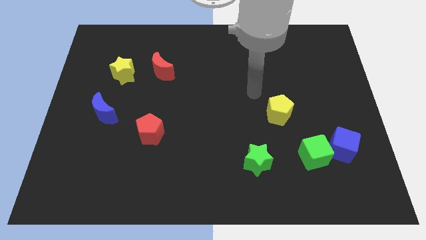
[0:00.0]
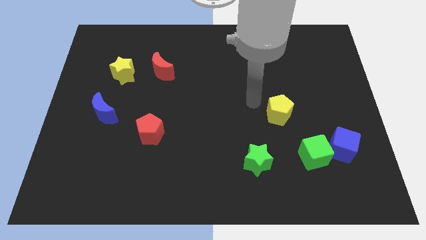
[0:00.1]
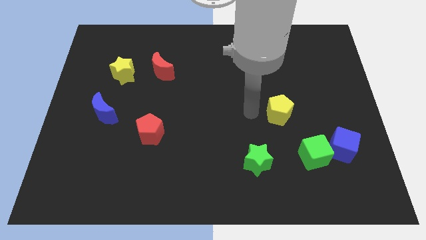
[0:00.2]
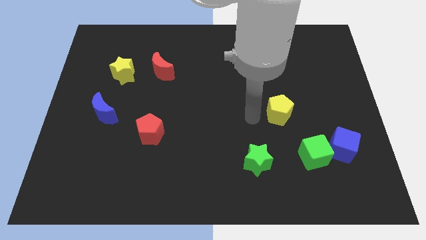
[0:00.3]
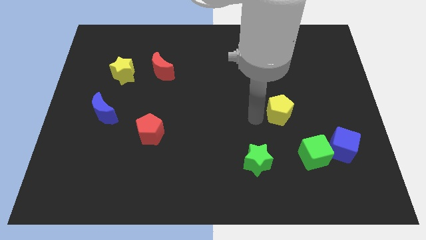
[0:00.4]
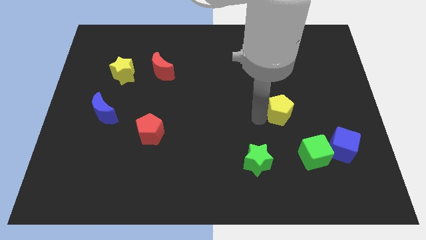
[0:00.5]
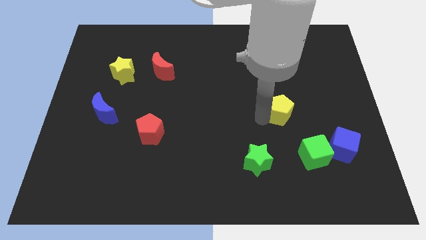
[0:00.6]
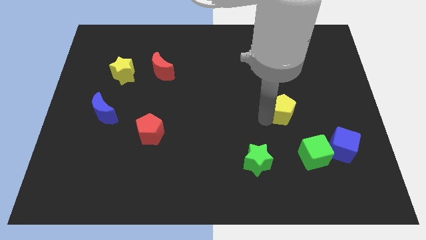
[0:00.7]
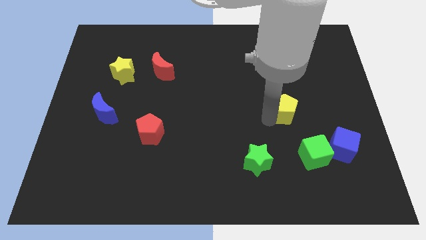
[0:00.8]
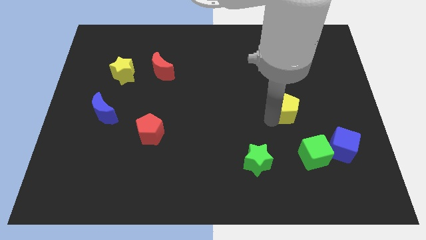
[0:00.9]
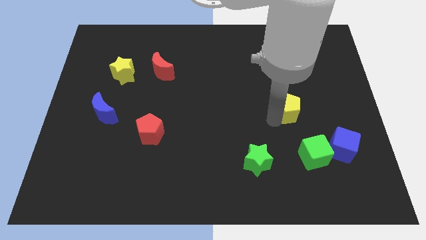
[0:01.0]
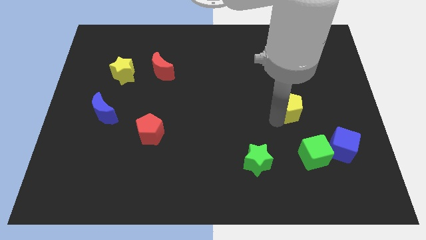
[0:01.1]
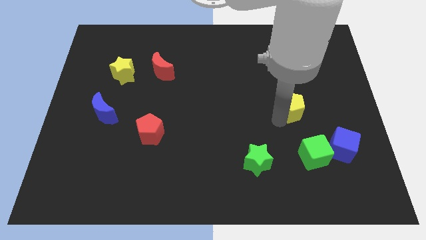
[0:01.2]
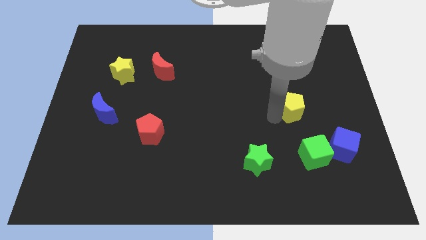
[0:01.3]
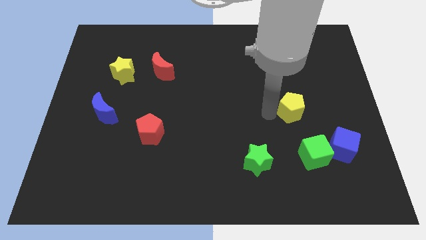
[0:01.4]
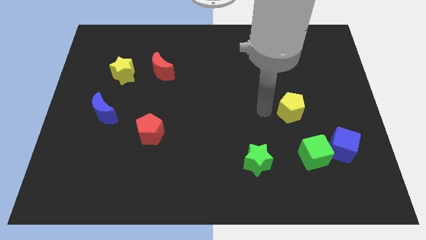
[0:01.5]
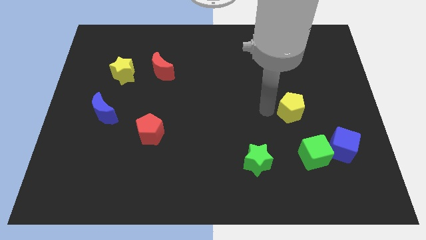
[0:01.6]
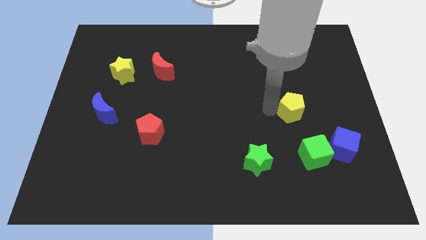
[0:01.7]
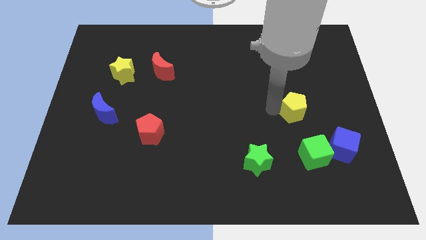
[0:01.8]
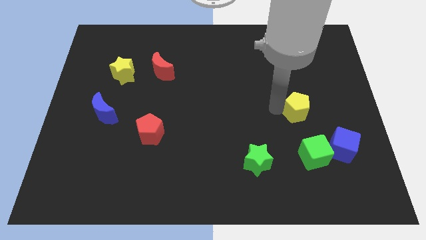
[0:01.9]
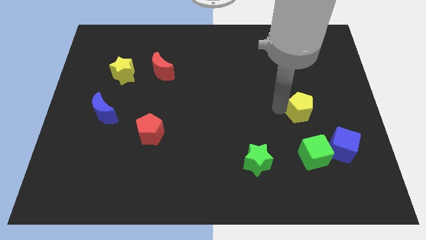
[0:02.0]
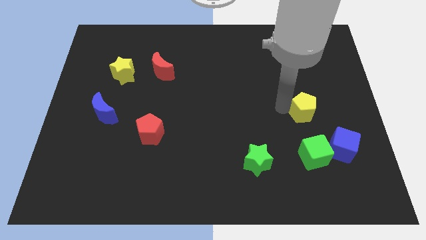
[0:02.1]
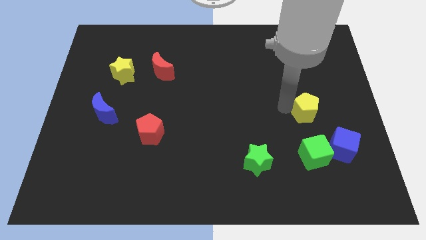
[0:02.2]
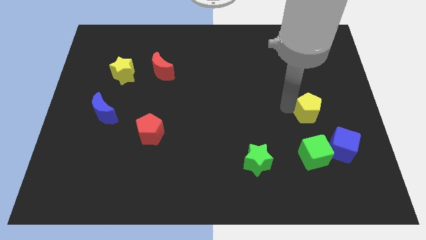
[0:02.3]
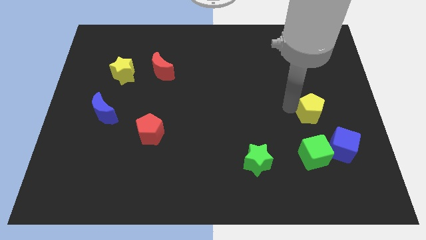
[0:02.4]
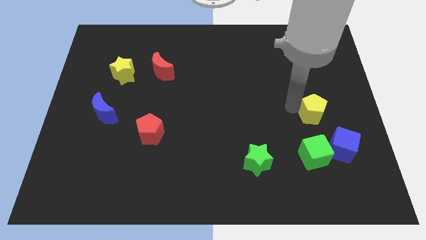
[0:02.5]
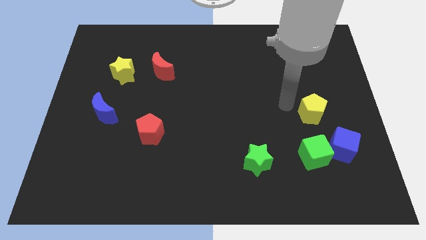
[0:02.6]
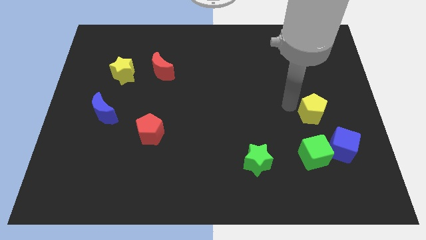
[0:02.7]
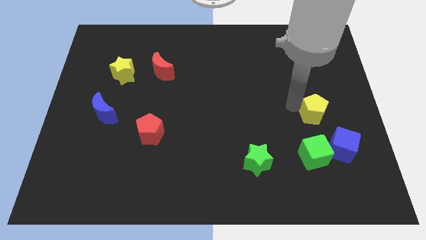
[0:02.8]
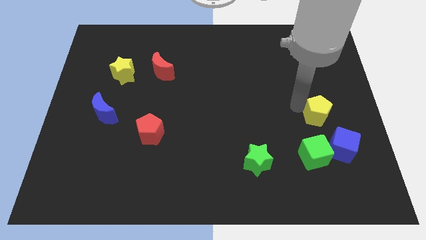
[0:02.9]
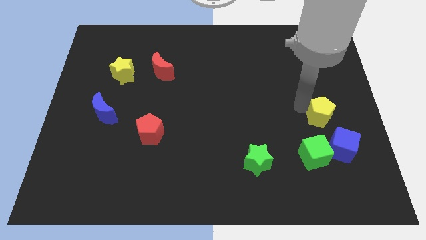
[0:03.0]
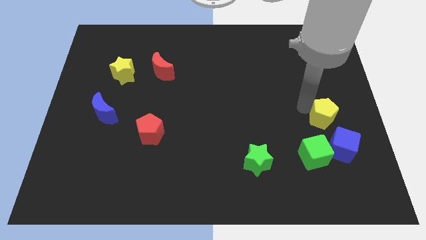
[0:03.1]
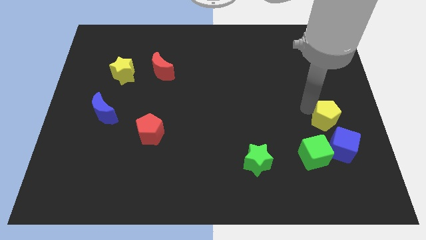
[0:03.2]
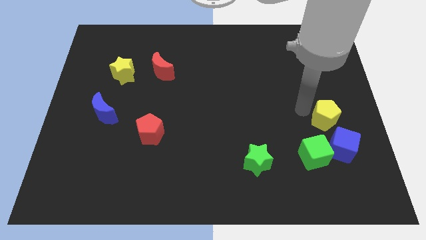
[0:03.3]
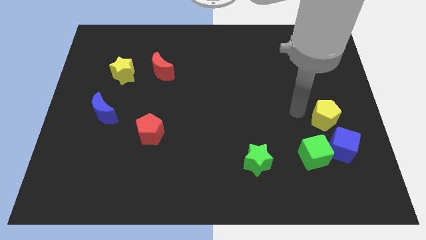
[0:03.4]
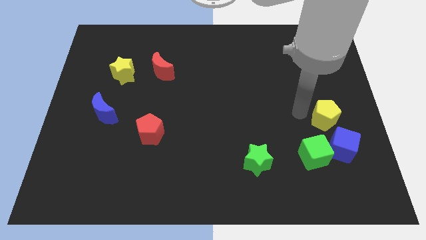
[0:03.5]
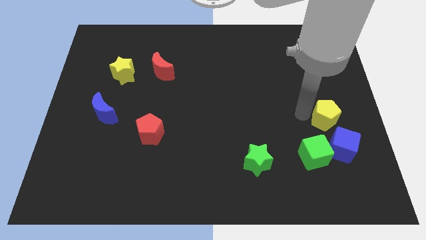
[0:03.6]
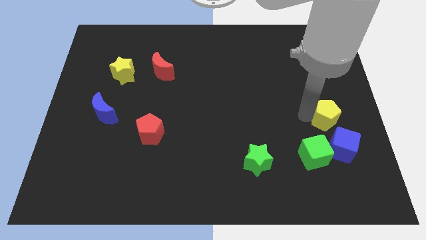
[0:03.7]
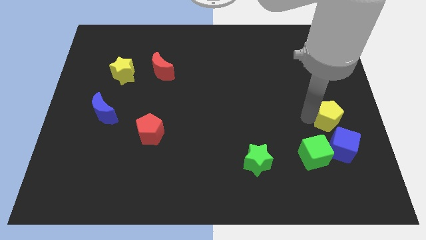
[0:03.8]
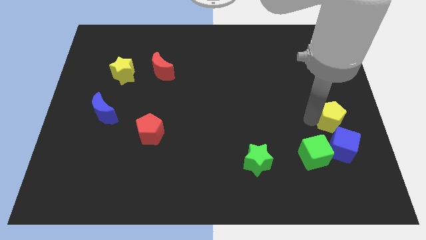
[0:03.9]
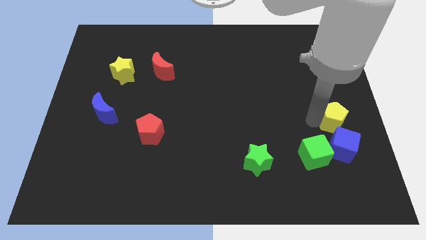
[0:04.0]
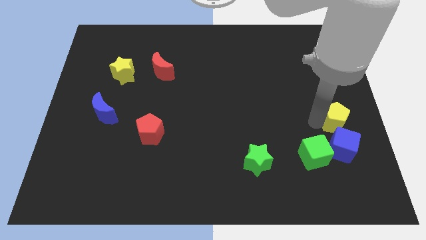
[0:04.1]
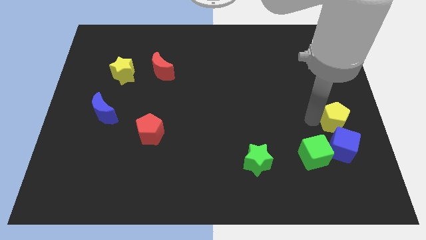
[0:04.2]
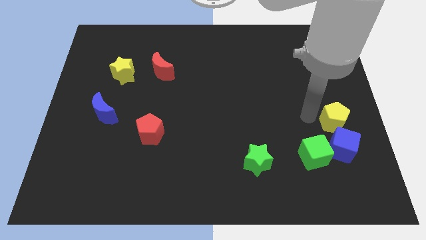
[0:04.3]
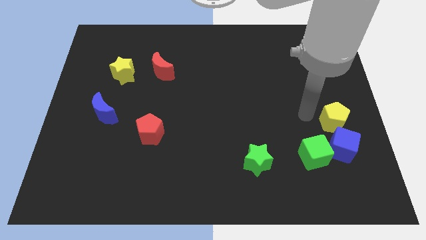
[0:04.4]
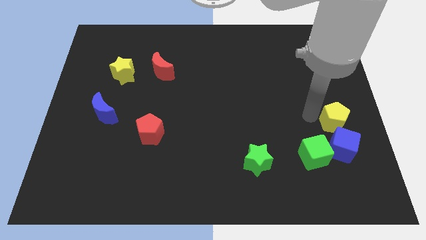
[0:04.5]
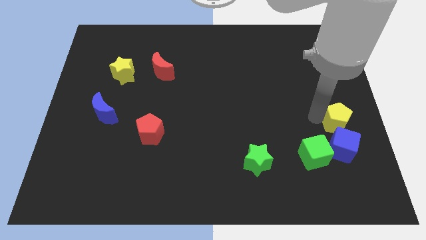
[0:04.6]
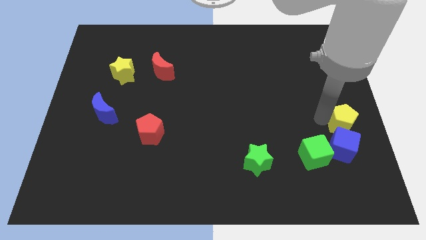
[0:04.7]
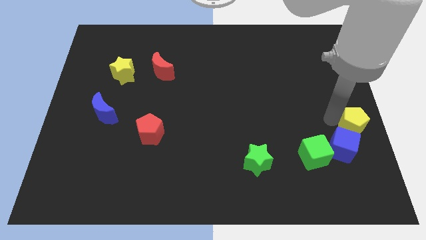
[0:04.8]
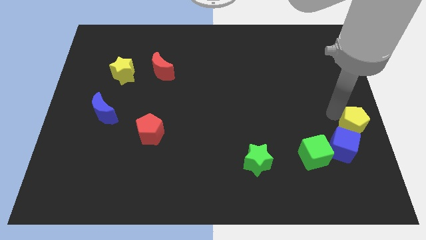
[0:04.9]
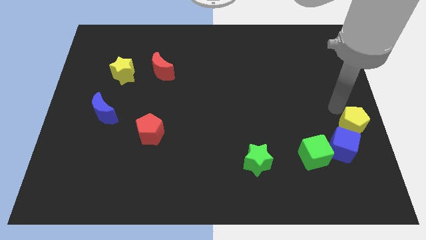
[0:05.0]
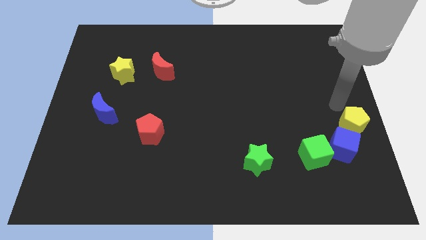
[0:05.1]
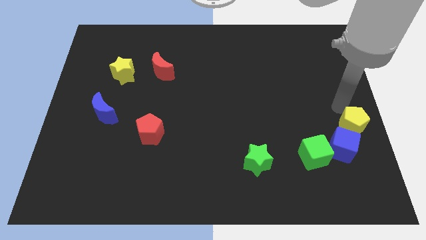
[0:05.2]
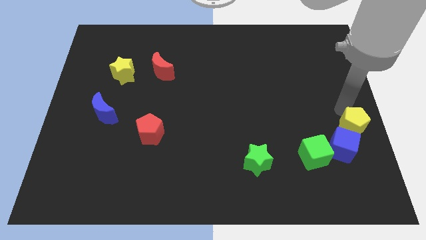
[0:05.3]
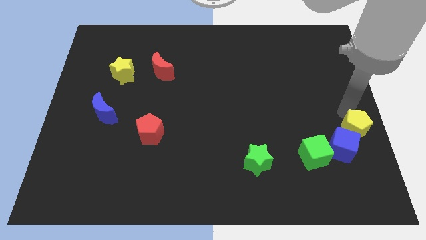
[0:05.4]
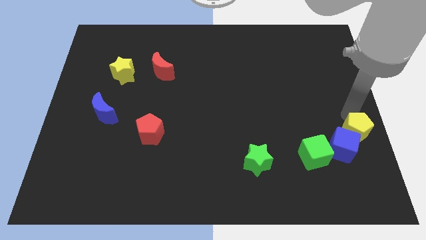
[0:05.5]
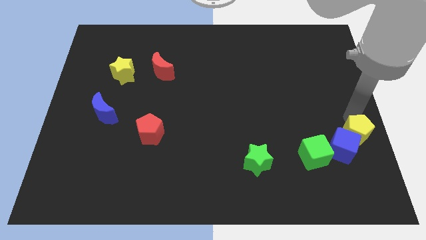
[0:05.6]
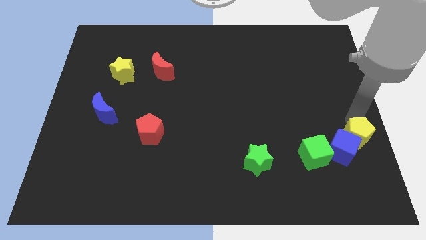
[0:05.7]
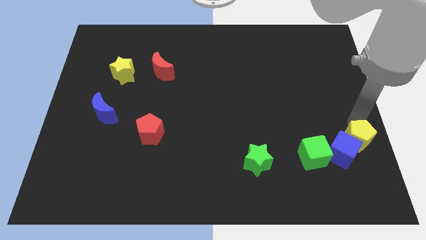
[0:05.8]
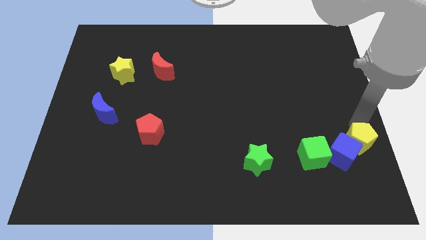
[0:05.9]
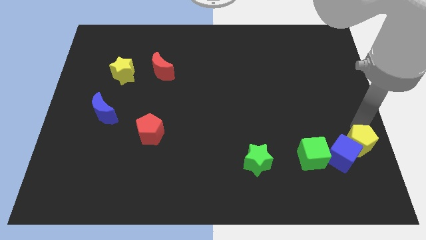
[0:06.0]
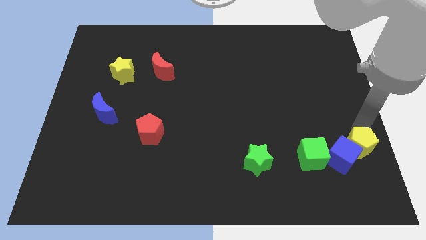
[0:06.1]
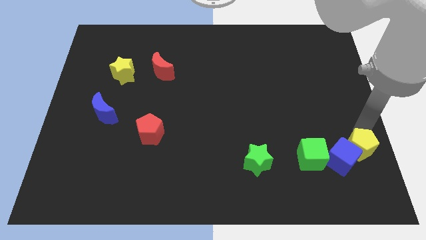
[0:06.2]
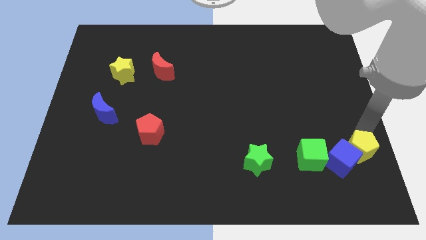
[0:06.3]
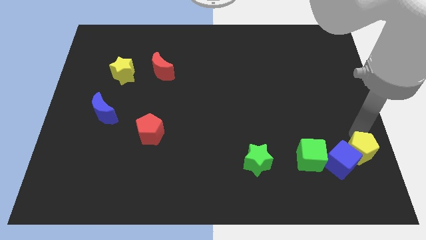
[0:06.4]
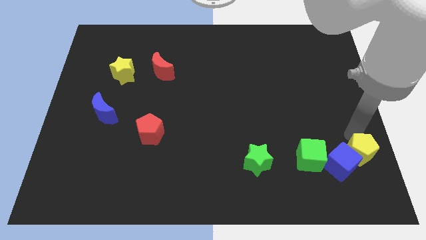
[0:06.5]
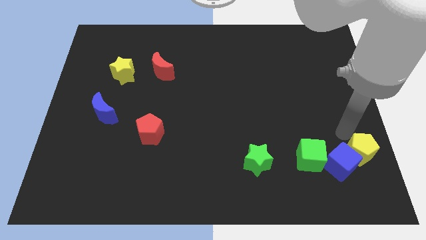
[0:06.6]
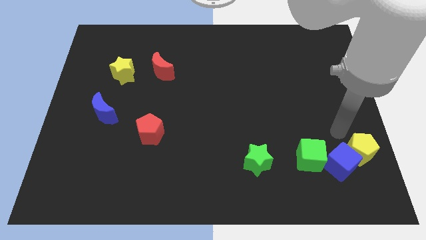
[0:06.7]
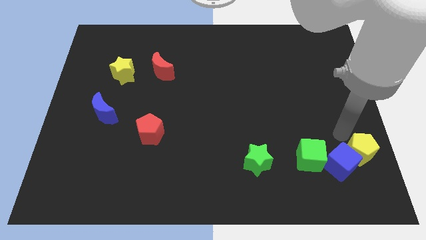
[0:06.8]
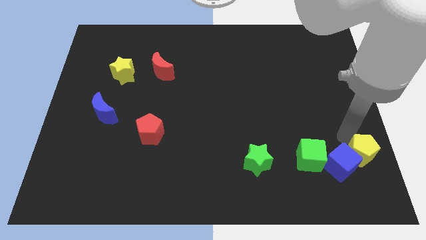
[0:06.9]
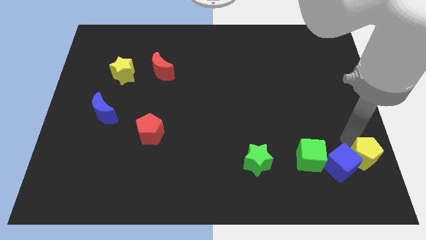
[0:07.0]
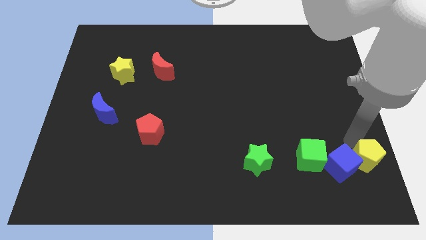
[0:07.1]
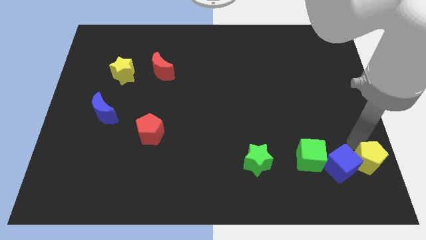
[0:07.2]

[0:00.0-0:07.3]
push the yellow pentagon to the bottom right corner
